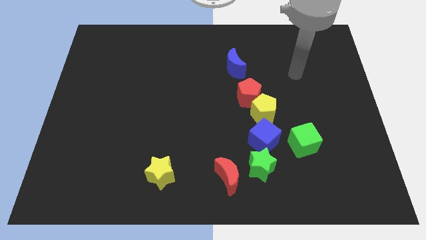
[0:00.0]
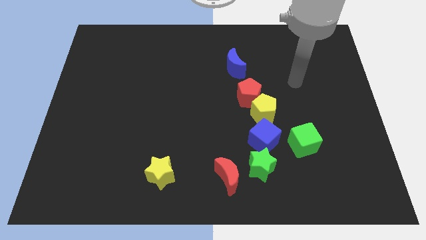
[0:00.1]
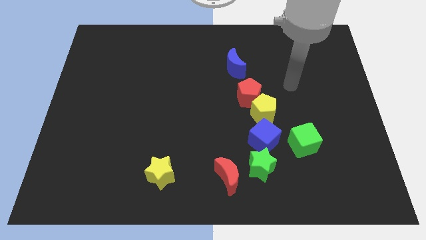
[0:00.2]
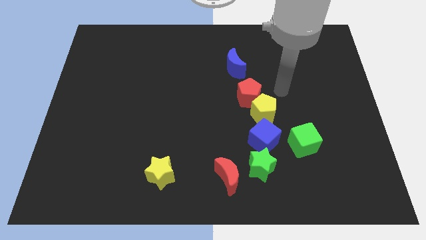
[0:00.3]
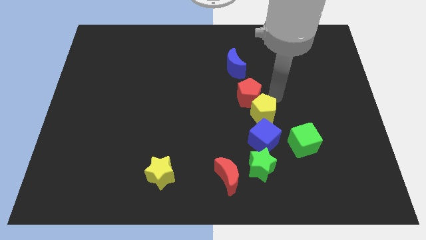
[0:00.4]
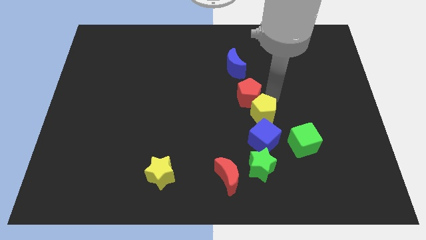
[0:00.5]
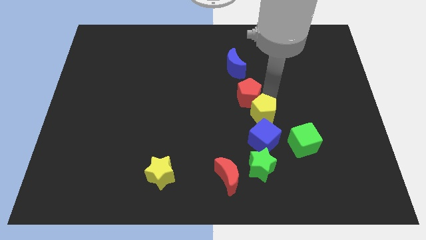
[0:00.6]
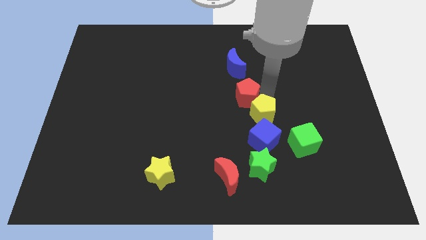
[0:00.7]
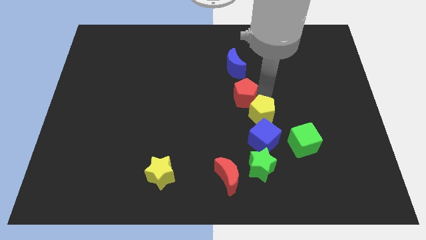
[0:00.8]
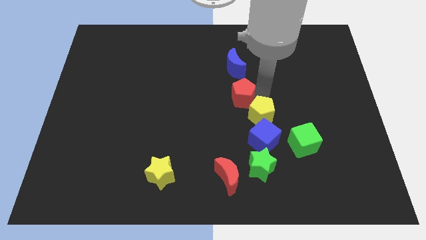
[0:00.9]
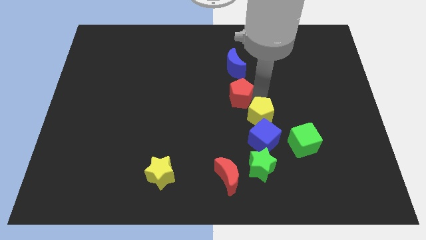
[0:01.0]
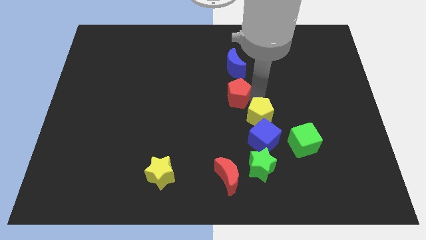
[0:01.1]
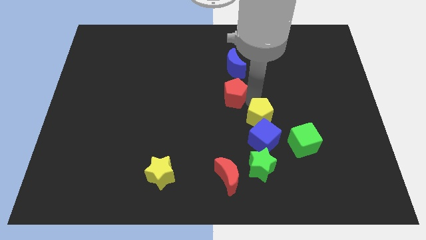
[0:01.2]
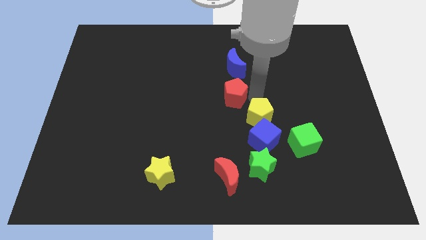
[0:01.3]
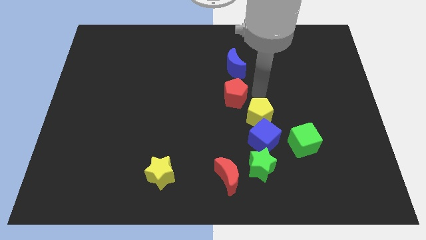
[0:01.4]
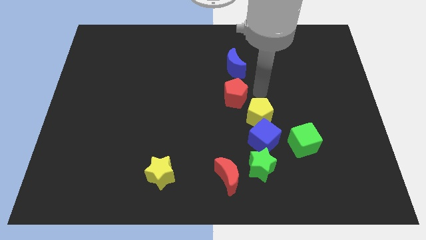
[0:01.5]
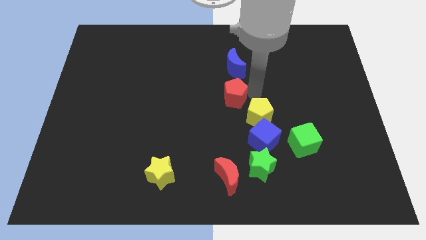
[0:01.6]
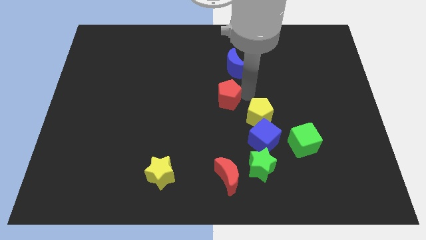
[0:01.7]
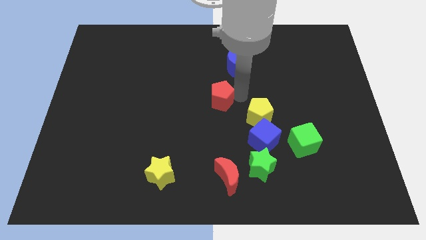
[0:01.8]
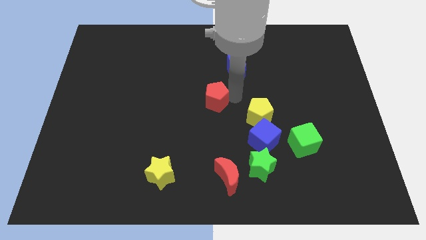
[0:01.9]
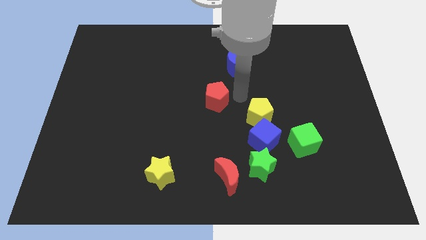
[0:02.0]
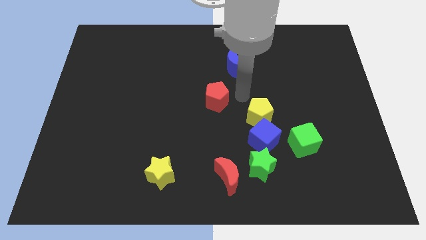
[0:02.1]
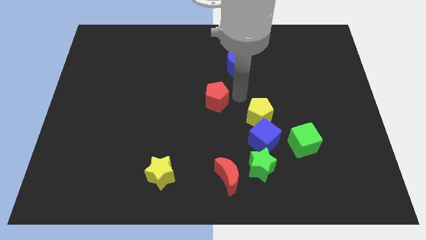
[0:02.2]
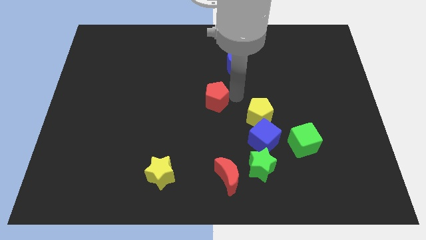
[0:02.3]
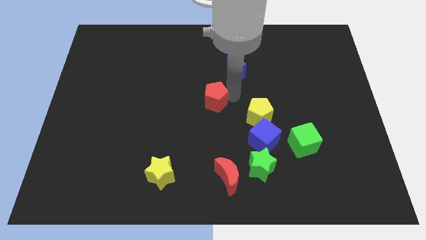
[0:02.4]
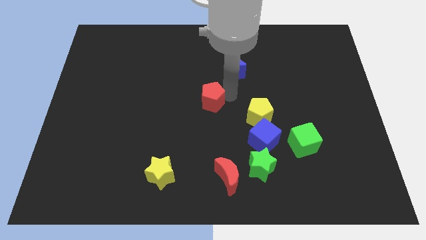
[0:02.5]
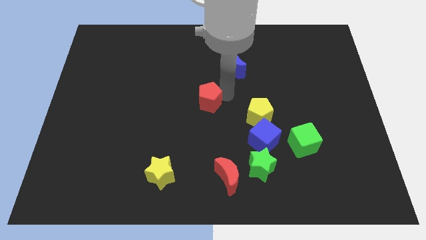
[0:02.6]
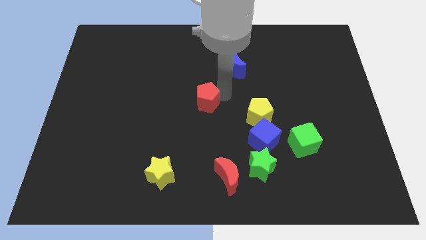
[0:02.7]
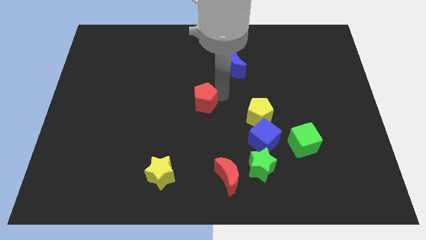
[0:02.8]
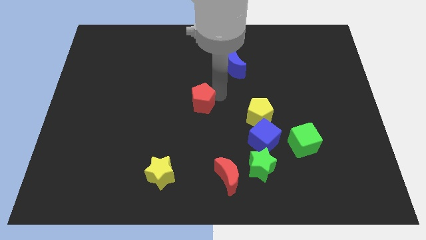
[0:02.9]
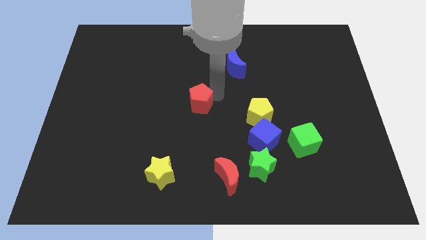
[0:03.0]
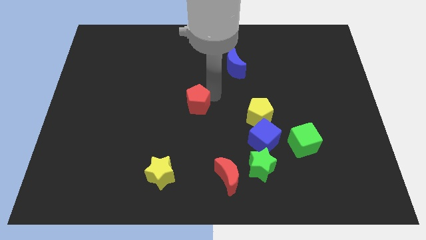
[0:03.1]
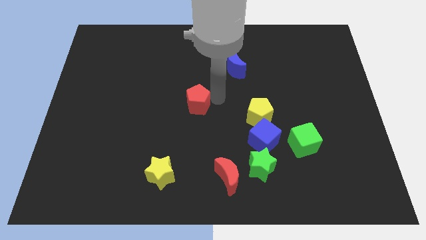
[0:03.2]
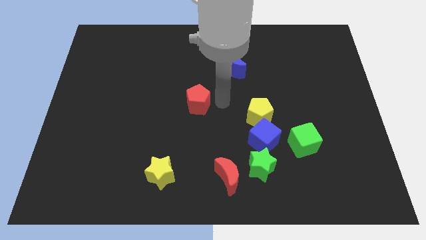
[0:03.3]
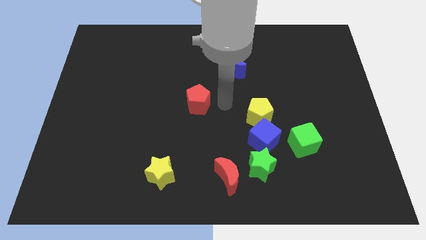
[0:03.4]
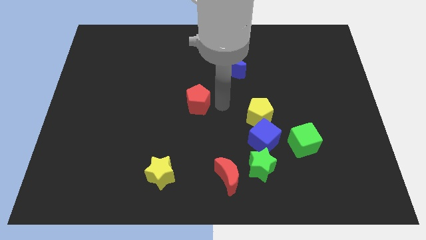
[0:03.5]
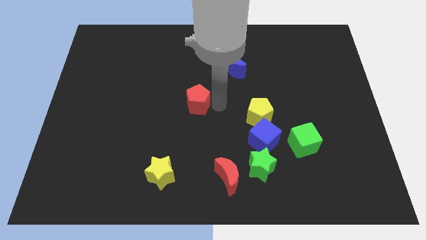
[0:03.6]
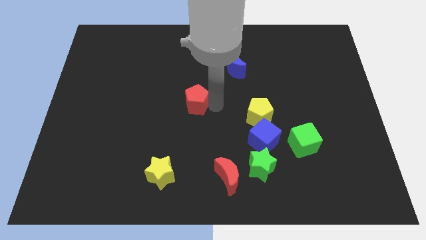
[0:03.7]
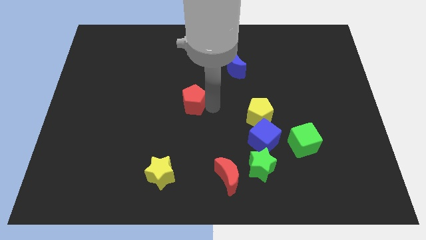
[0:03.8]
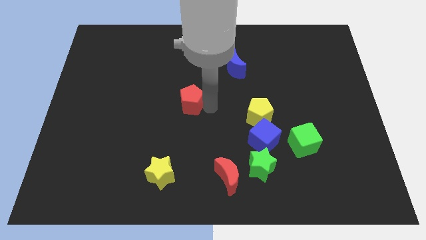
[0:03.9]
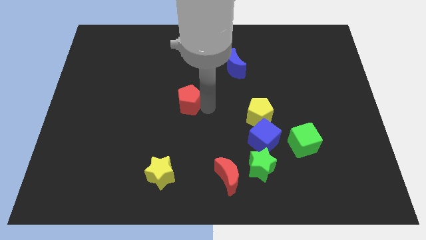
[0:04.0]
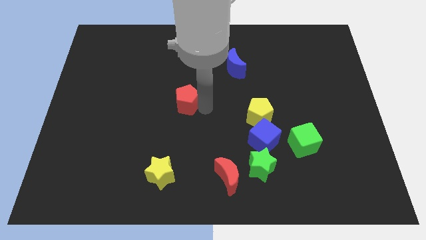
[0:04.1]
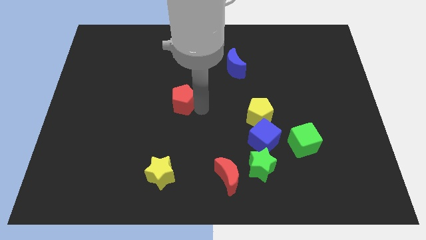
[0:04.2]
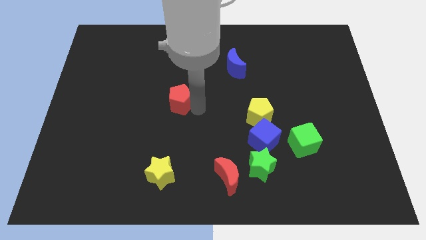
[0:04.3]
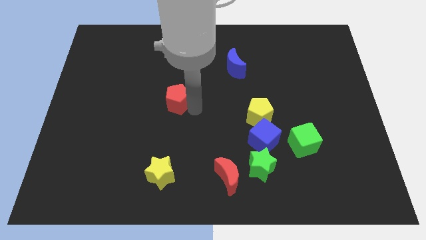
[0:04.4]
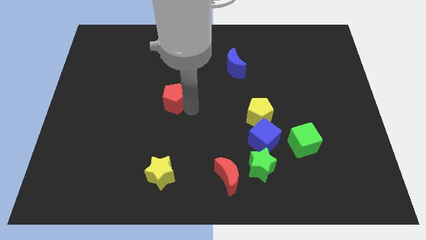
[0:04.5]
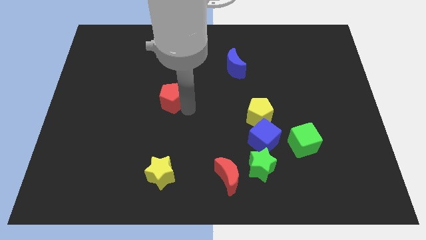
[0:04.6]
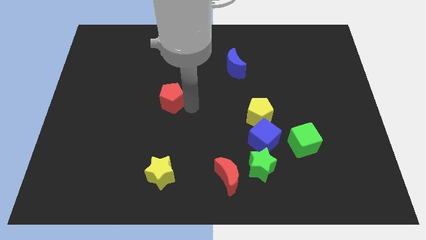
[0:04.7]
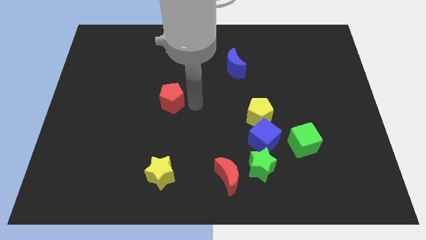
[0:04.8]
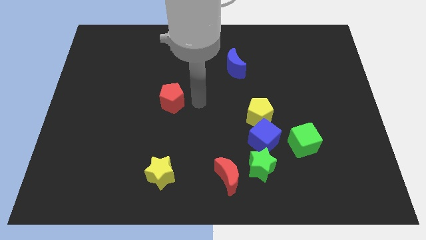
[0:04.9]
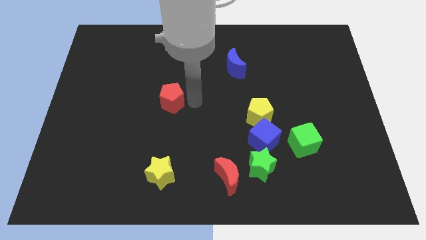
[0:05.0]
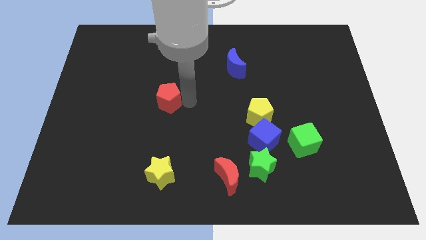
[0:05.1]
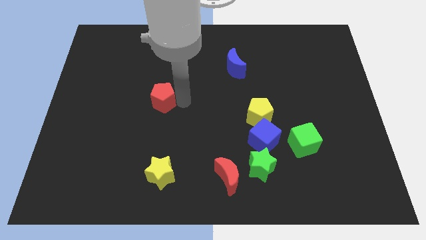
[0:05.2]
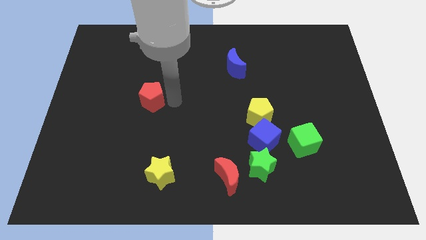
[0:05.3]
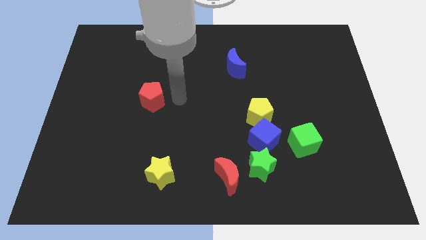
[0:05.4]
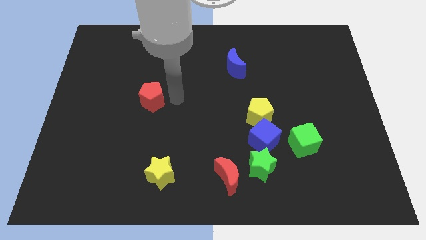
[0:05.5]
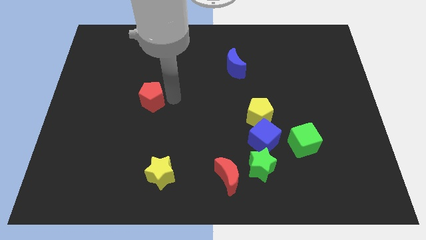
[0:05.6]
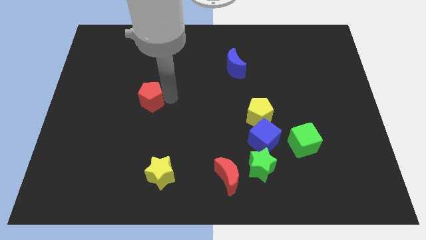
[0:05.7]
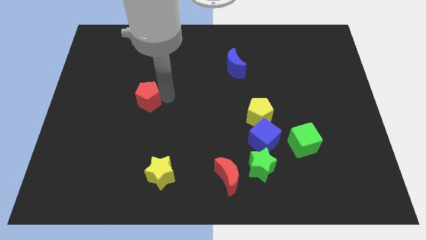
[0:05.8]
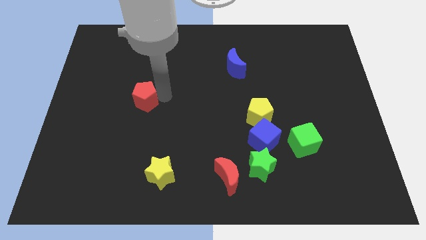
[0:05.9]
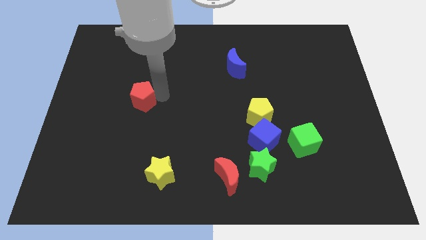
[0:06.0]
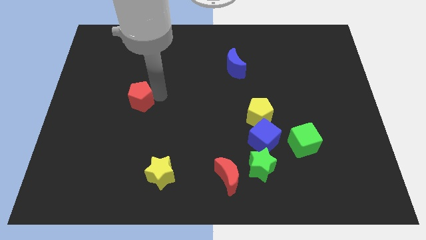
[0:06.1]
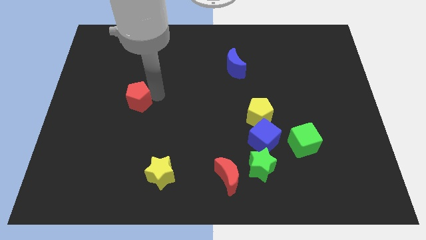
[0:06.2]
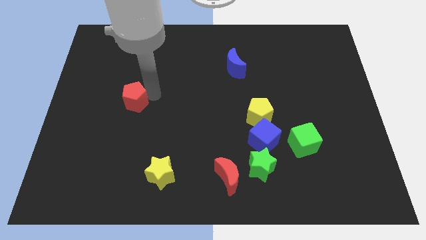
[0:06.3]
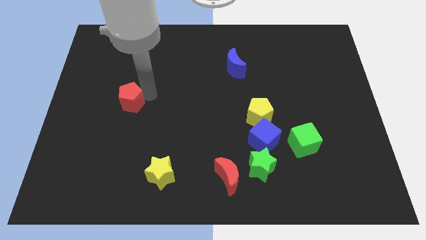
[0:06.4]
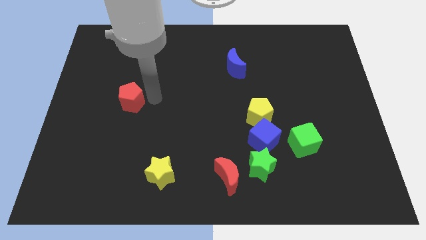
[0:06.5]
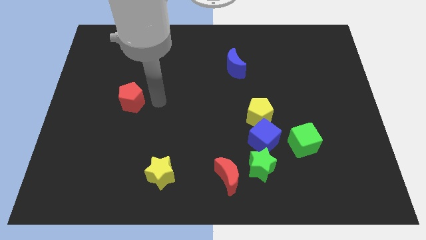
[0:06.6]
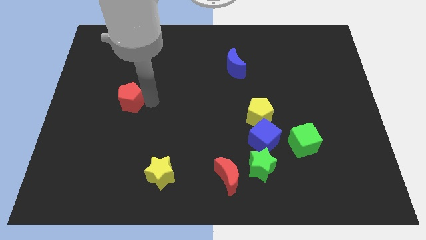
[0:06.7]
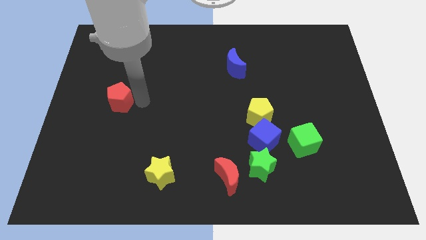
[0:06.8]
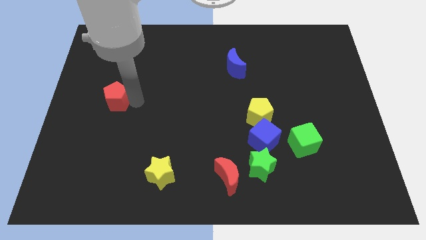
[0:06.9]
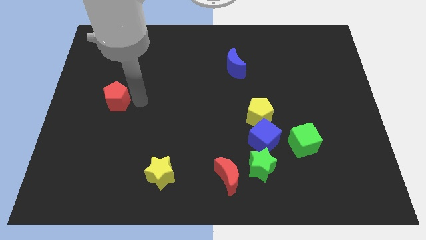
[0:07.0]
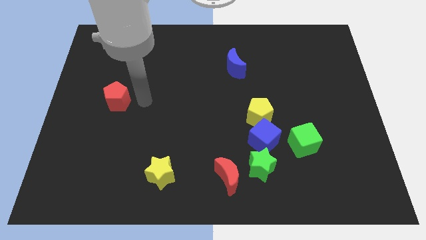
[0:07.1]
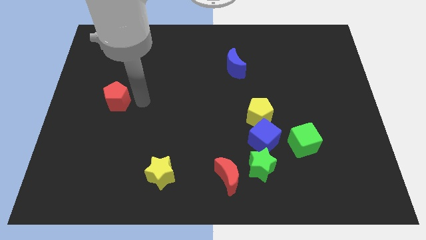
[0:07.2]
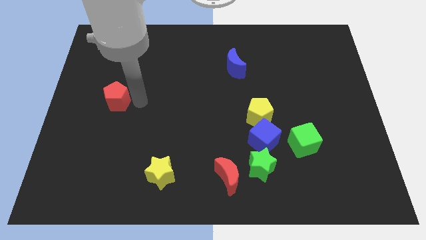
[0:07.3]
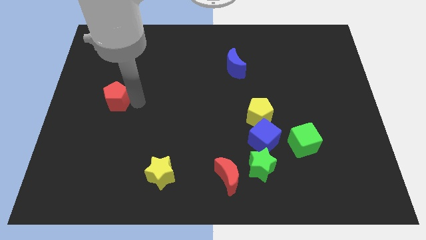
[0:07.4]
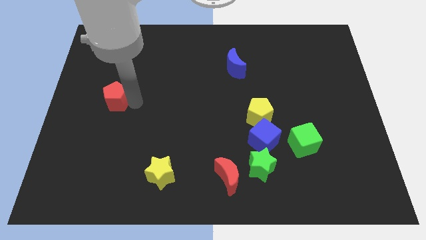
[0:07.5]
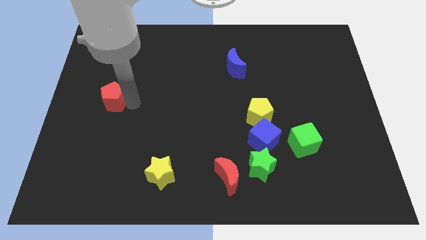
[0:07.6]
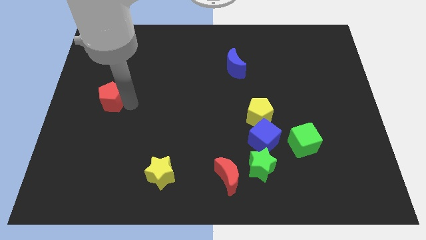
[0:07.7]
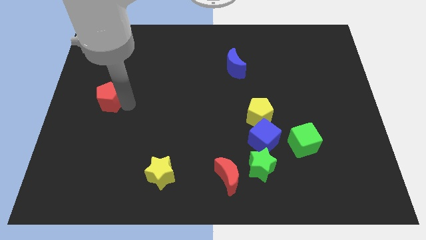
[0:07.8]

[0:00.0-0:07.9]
move the red pentagon to the center left
